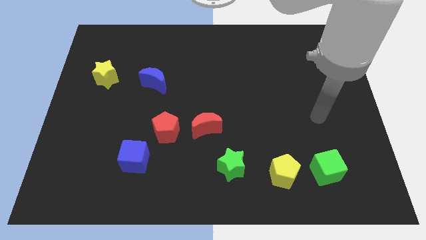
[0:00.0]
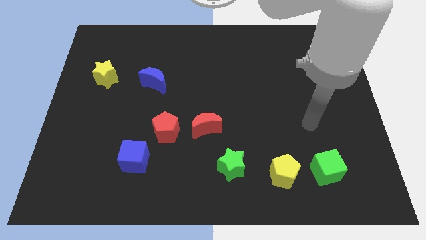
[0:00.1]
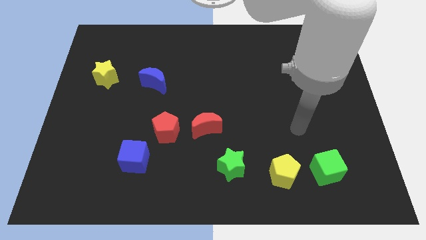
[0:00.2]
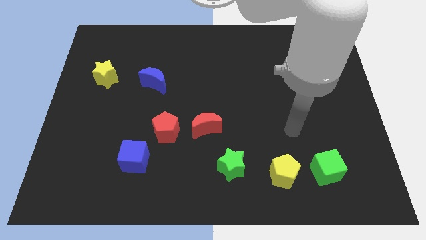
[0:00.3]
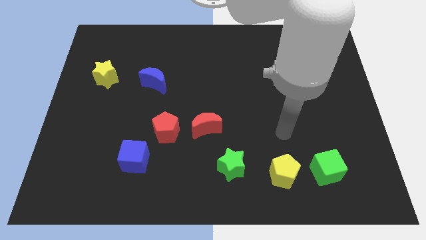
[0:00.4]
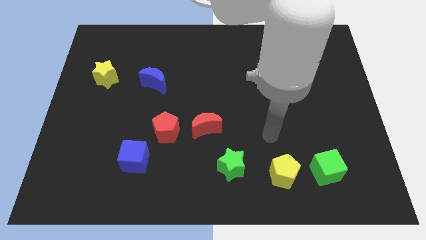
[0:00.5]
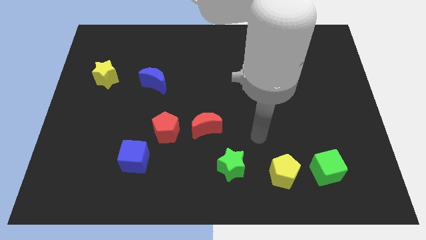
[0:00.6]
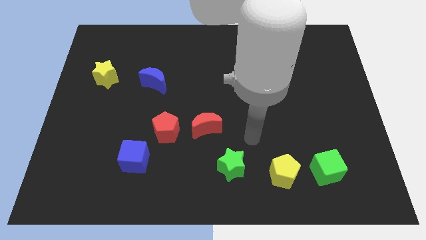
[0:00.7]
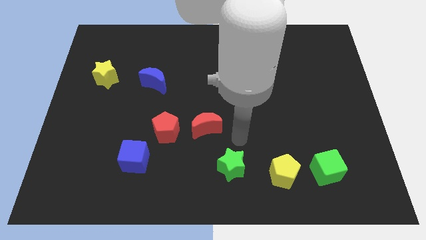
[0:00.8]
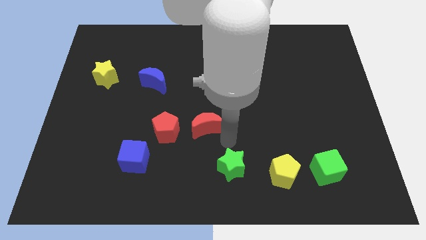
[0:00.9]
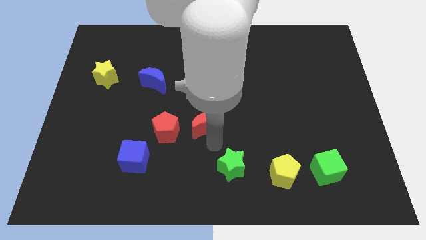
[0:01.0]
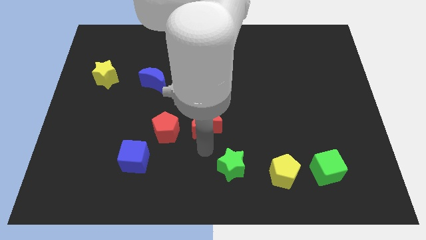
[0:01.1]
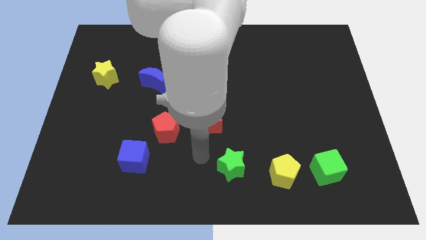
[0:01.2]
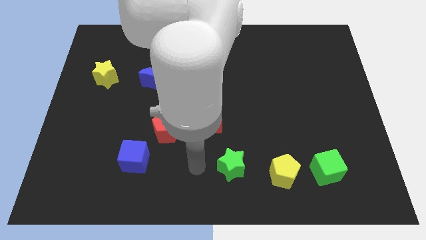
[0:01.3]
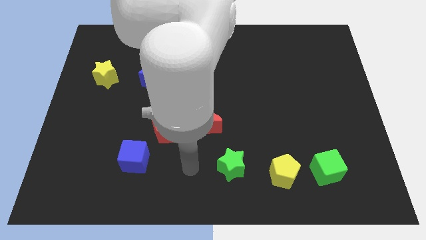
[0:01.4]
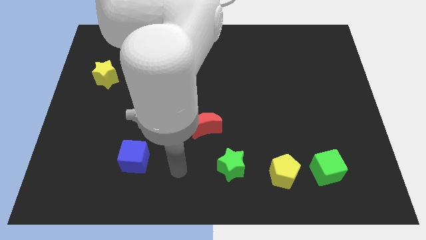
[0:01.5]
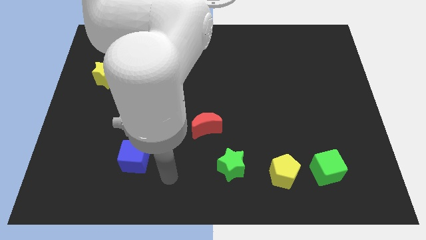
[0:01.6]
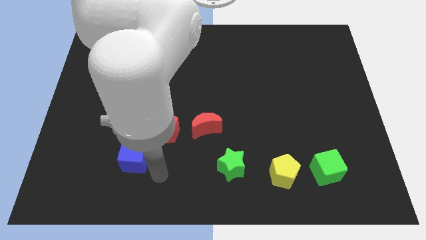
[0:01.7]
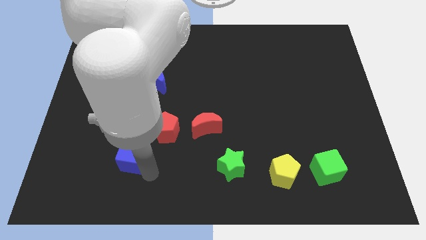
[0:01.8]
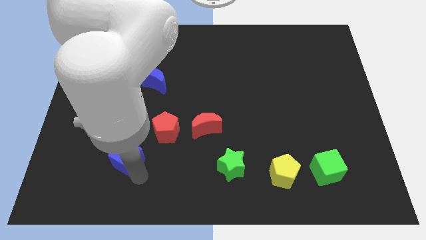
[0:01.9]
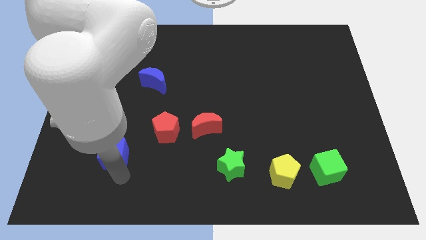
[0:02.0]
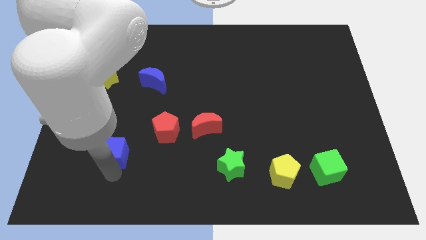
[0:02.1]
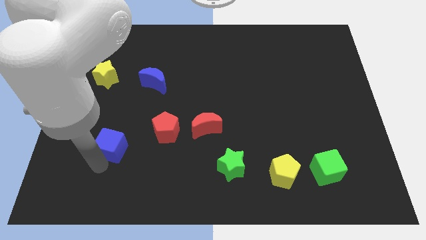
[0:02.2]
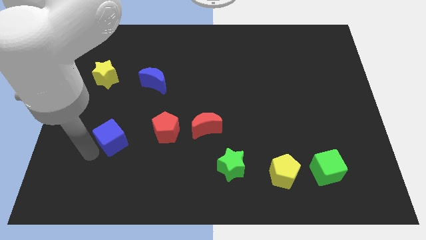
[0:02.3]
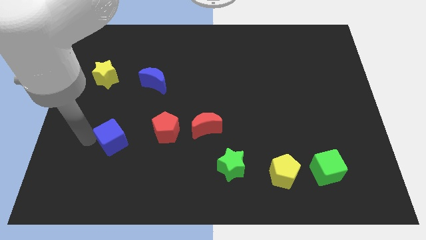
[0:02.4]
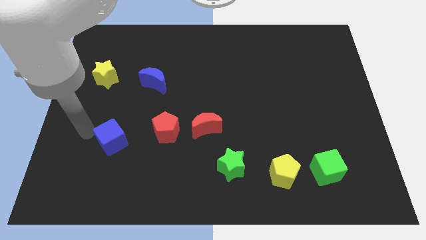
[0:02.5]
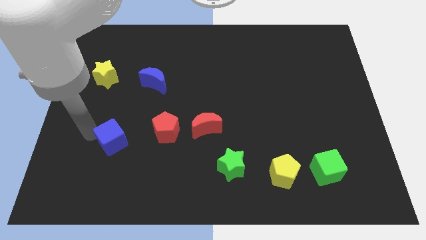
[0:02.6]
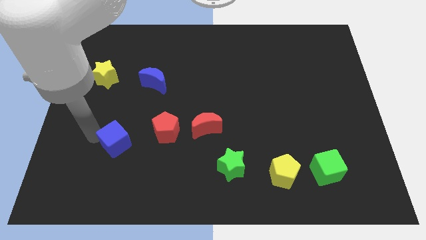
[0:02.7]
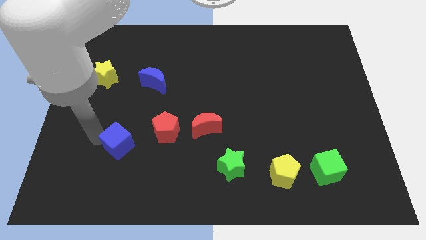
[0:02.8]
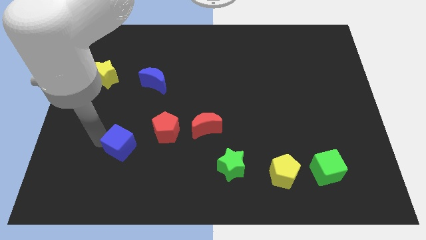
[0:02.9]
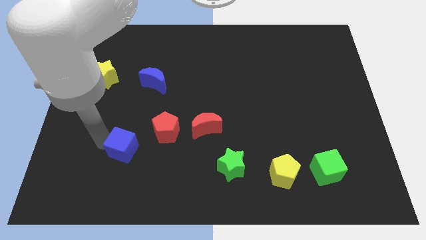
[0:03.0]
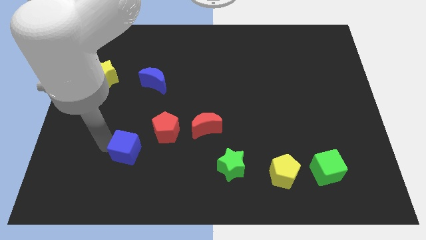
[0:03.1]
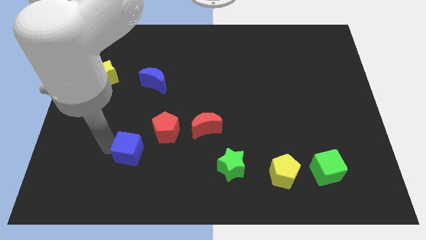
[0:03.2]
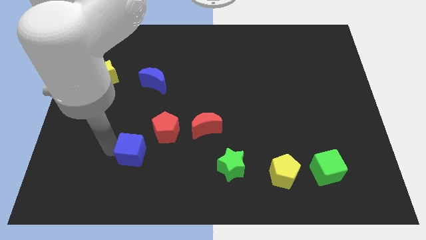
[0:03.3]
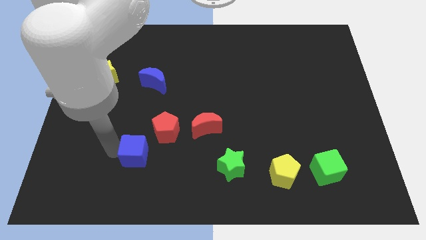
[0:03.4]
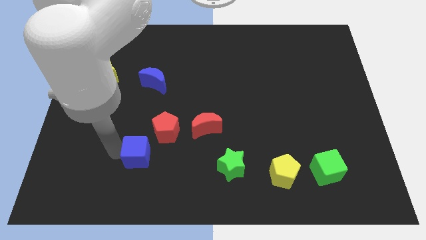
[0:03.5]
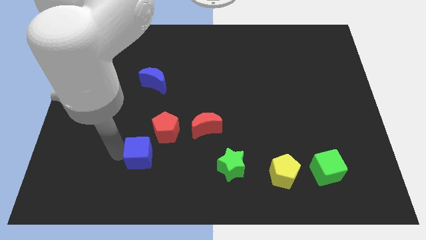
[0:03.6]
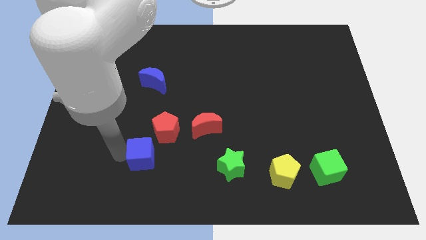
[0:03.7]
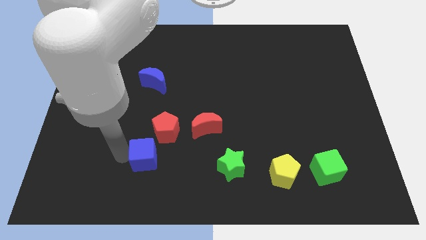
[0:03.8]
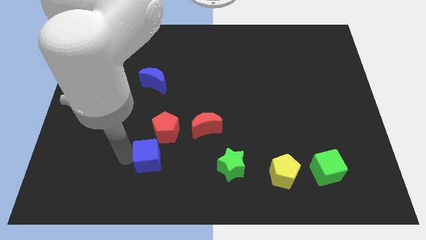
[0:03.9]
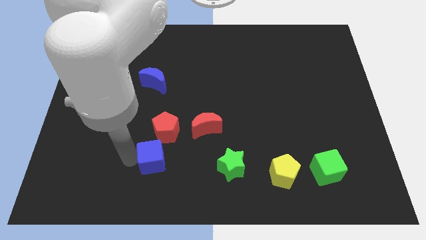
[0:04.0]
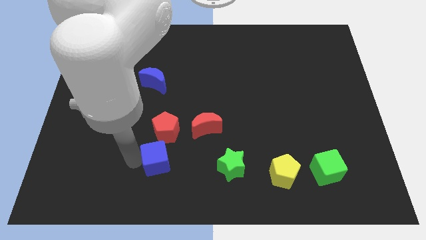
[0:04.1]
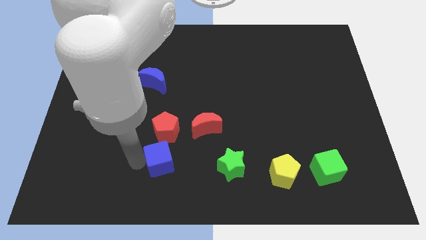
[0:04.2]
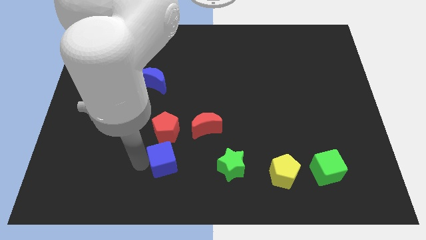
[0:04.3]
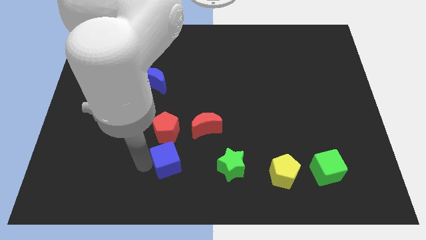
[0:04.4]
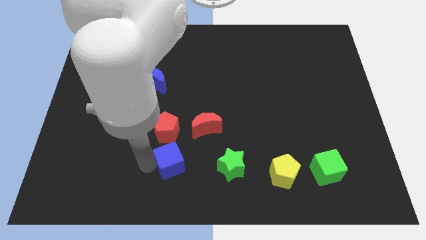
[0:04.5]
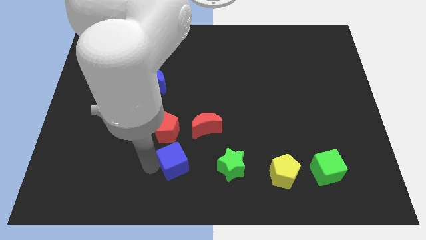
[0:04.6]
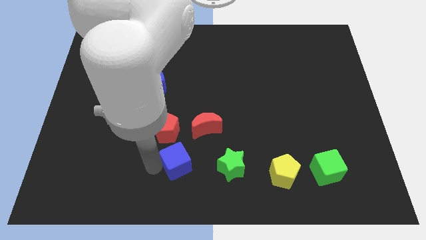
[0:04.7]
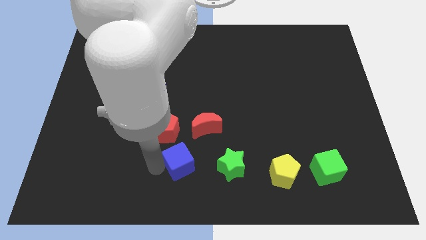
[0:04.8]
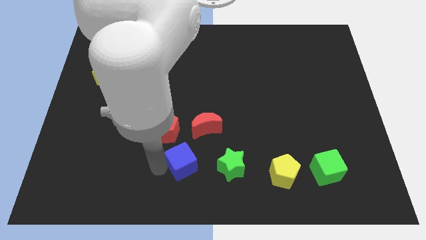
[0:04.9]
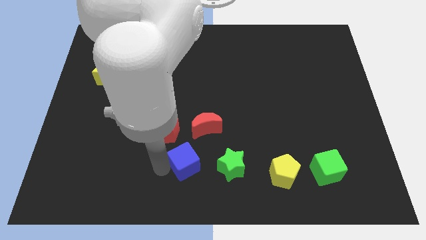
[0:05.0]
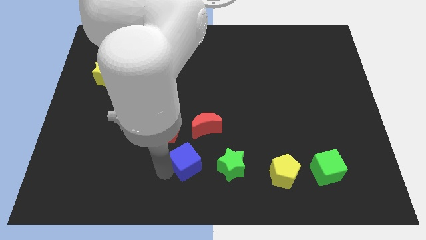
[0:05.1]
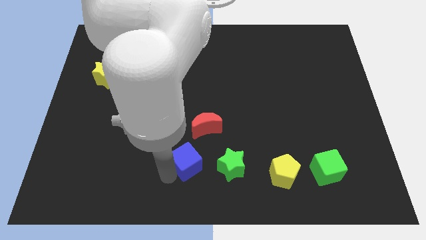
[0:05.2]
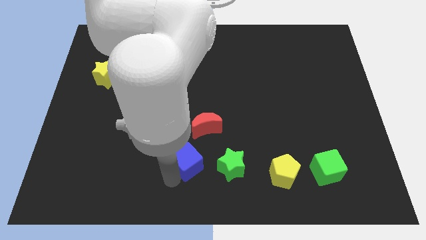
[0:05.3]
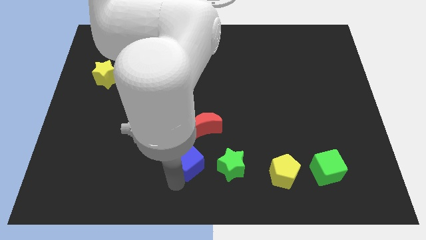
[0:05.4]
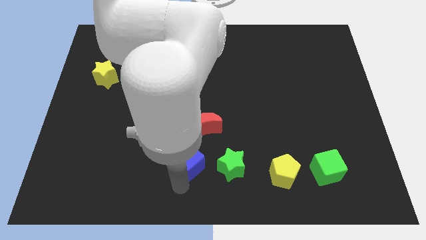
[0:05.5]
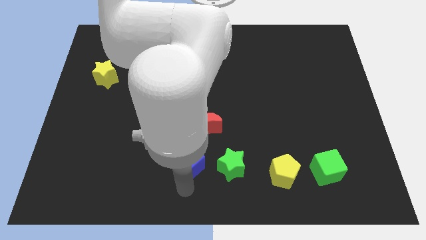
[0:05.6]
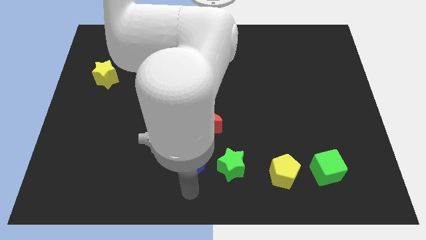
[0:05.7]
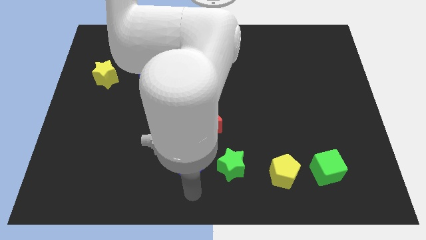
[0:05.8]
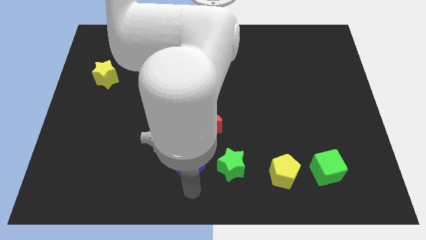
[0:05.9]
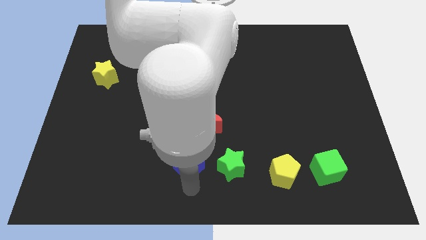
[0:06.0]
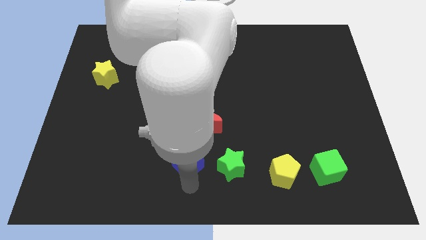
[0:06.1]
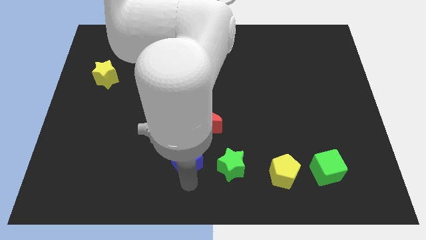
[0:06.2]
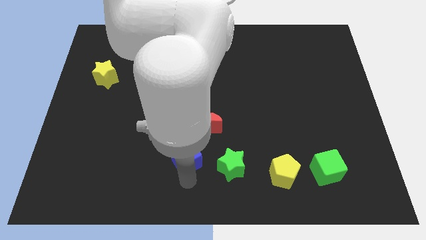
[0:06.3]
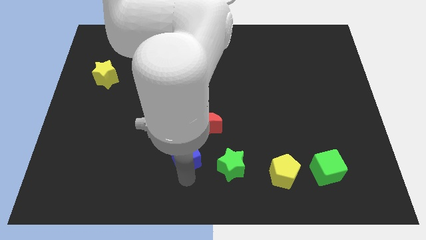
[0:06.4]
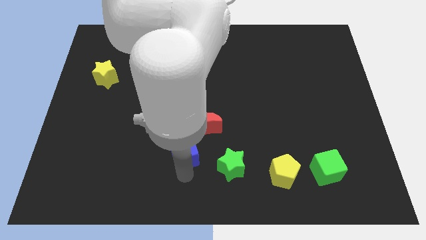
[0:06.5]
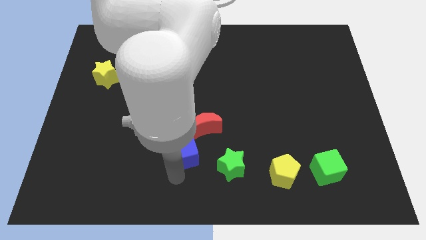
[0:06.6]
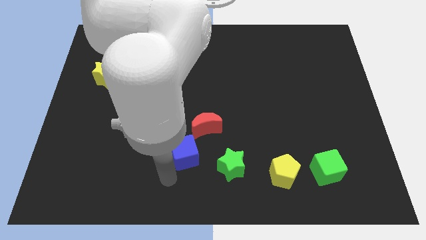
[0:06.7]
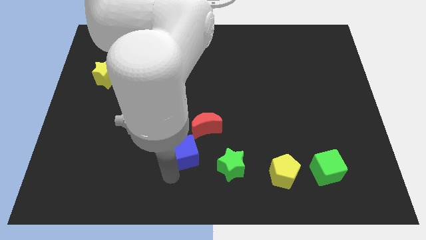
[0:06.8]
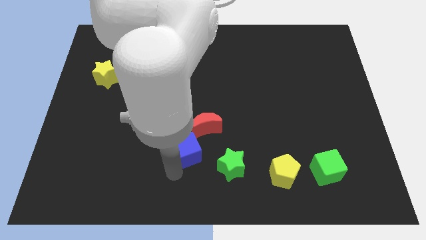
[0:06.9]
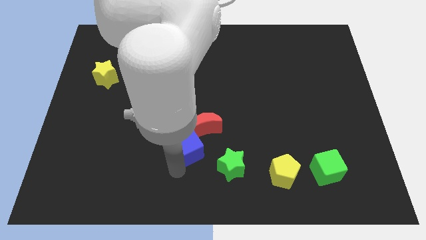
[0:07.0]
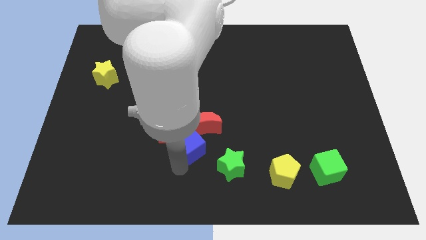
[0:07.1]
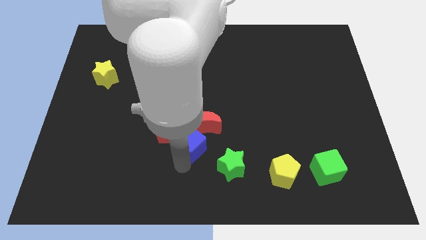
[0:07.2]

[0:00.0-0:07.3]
slide the blue cube towards the red moon
